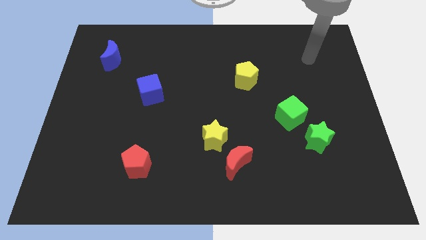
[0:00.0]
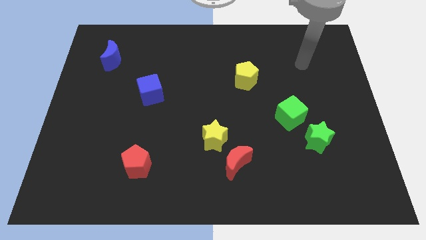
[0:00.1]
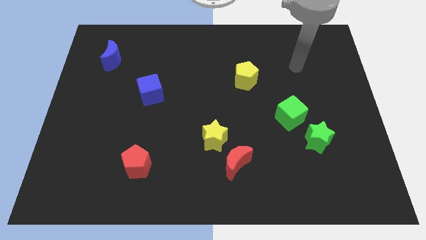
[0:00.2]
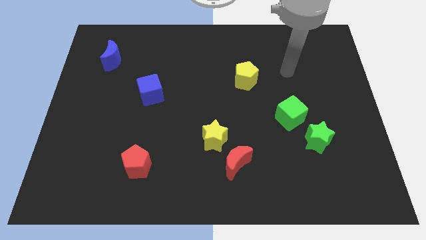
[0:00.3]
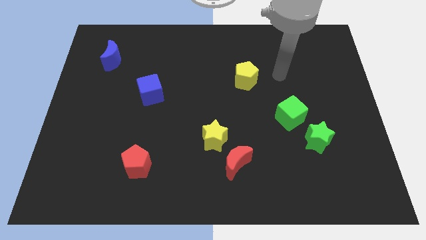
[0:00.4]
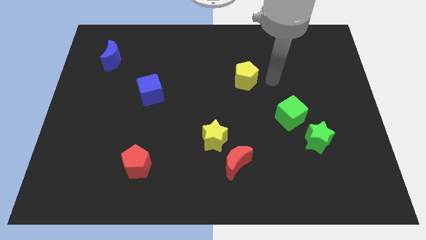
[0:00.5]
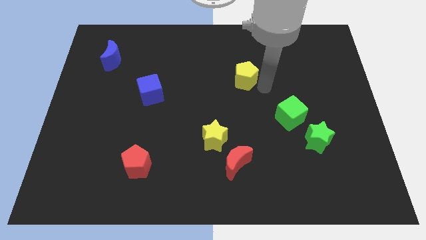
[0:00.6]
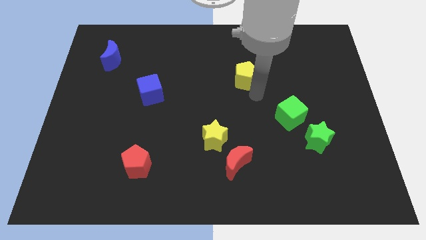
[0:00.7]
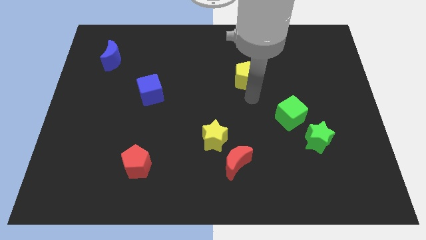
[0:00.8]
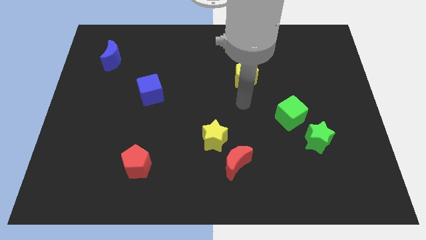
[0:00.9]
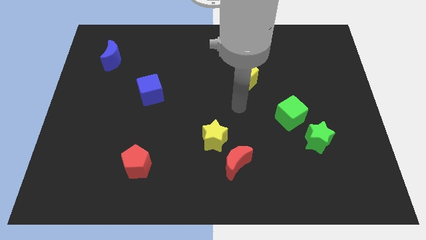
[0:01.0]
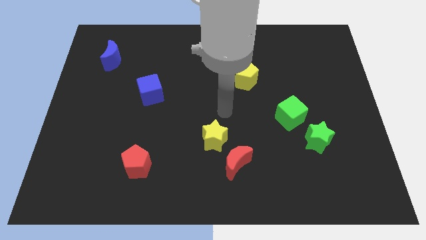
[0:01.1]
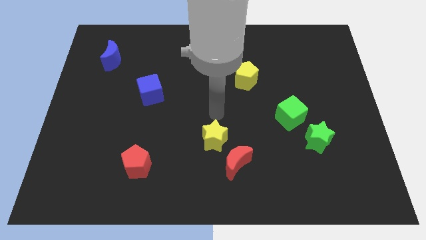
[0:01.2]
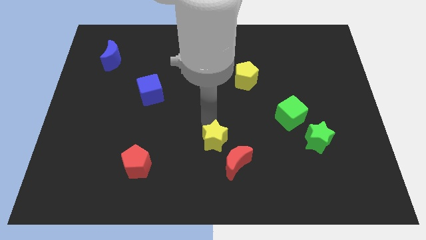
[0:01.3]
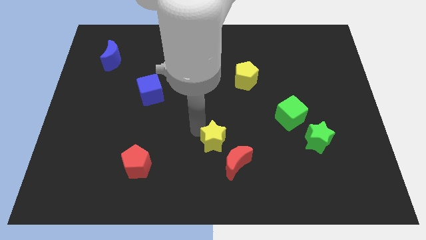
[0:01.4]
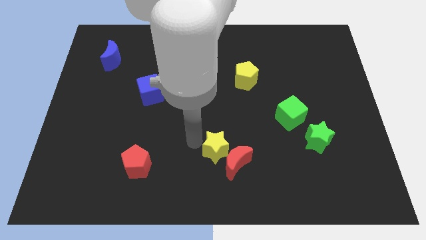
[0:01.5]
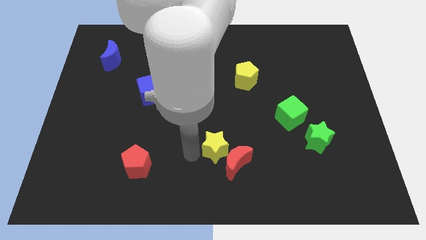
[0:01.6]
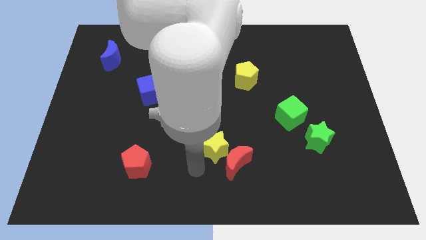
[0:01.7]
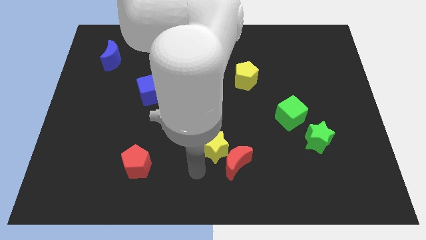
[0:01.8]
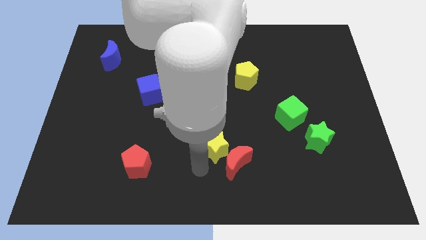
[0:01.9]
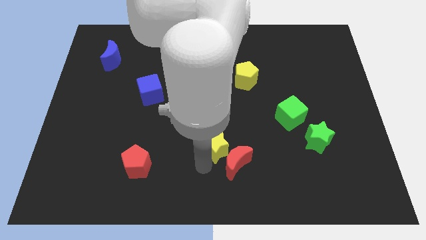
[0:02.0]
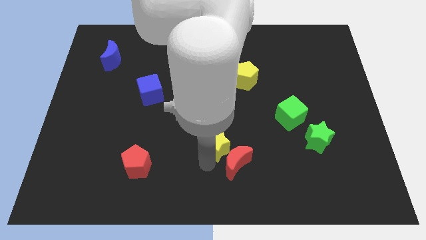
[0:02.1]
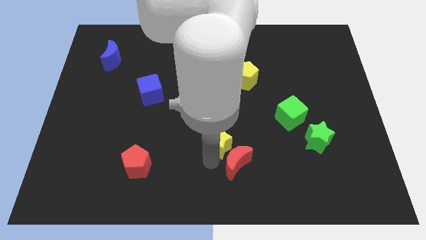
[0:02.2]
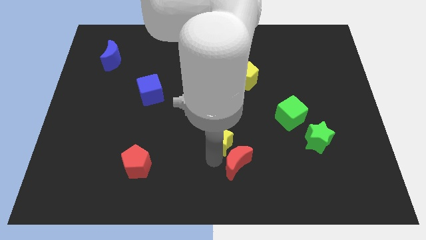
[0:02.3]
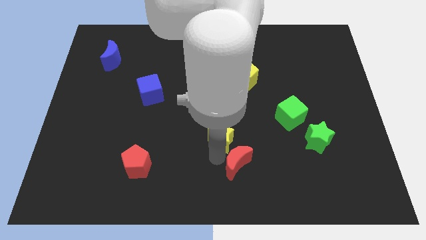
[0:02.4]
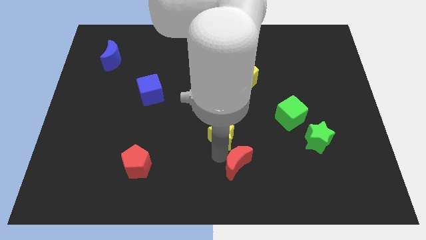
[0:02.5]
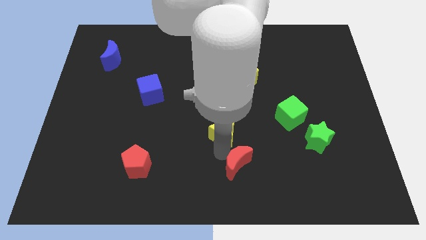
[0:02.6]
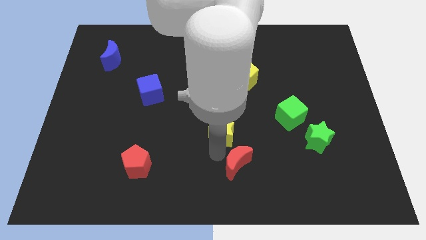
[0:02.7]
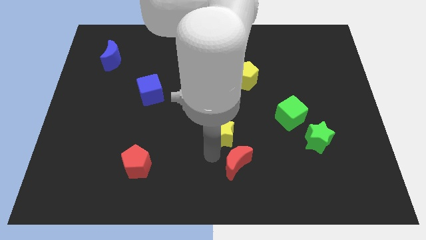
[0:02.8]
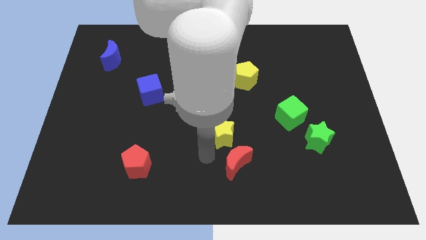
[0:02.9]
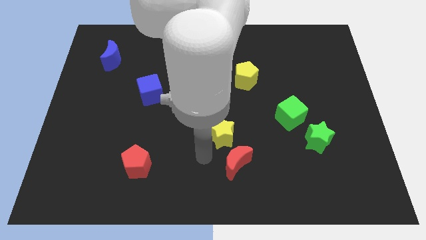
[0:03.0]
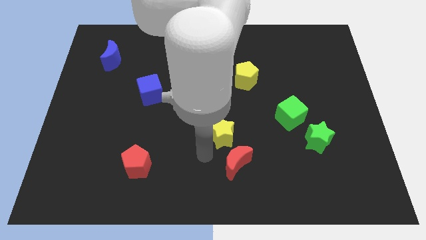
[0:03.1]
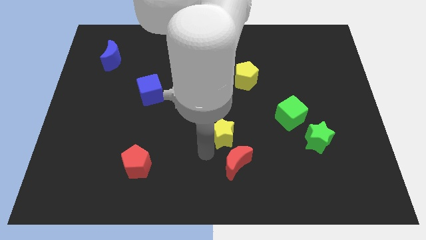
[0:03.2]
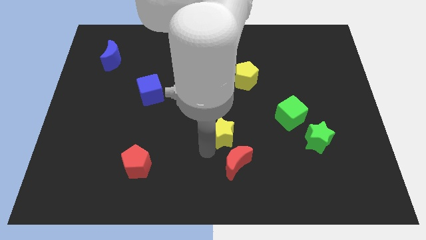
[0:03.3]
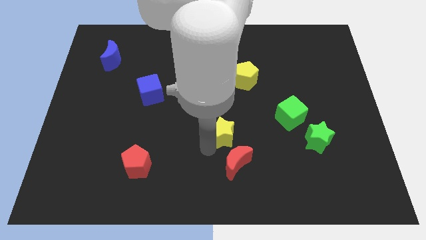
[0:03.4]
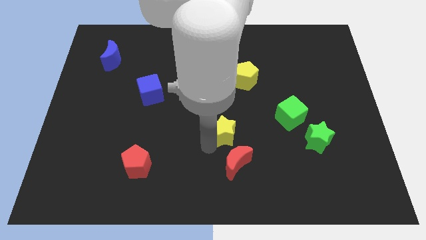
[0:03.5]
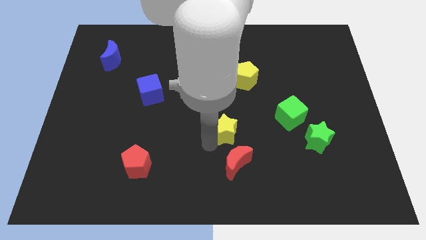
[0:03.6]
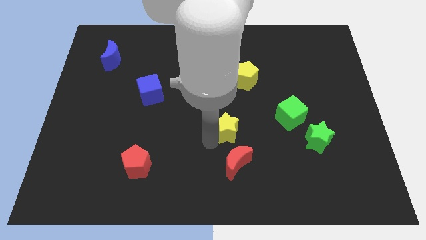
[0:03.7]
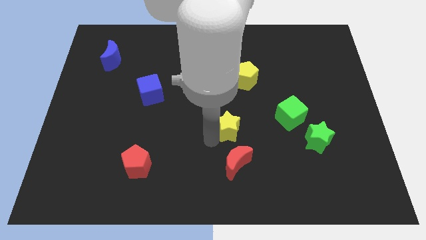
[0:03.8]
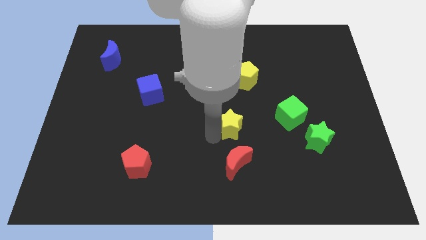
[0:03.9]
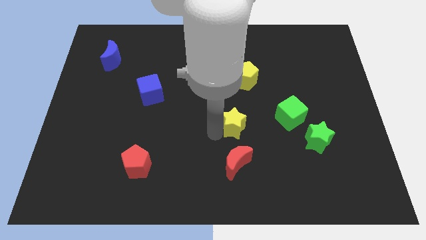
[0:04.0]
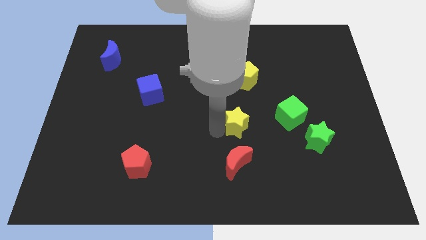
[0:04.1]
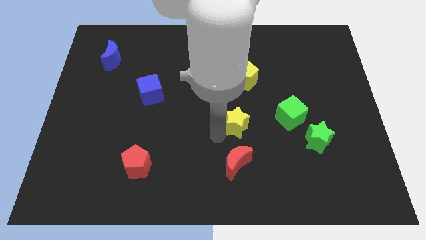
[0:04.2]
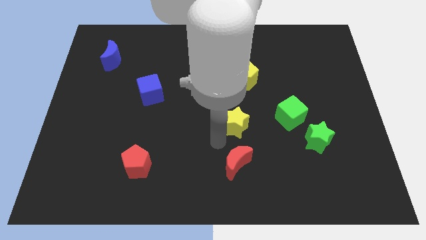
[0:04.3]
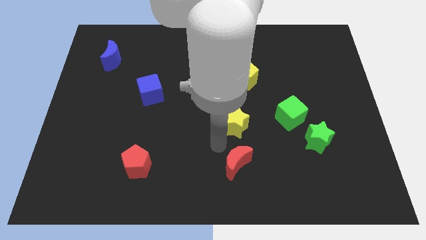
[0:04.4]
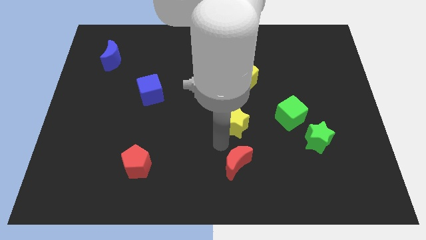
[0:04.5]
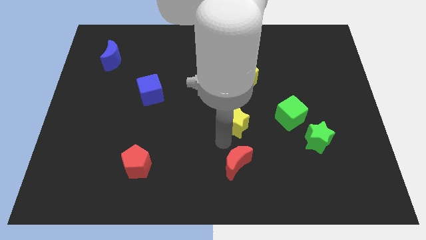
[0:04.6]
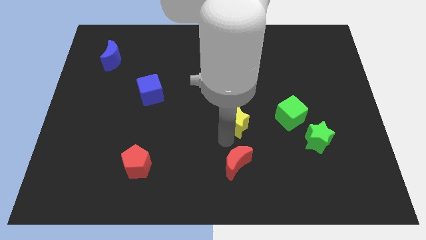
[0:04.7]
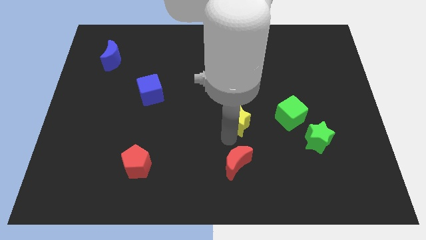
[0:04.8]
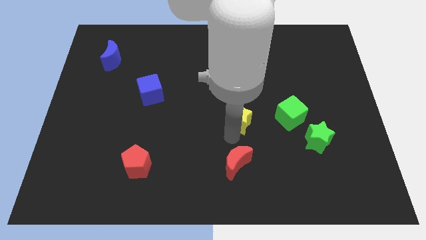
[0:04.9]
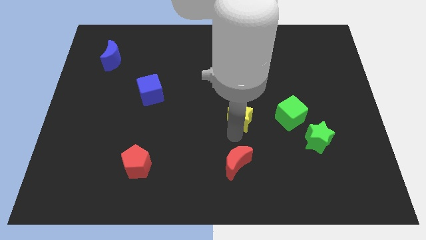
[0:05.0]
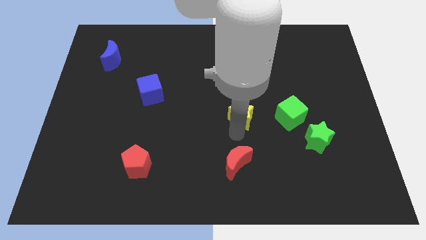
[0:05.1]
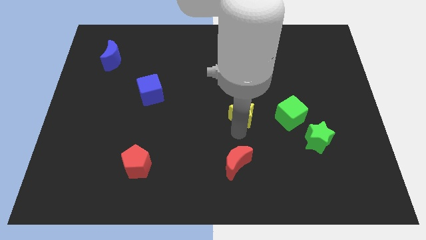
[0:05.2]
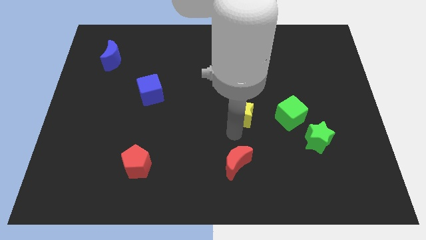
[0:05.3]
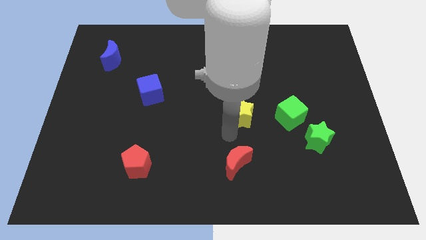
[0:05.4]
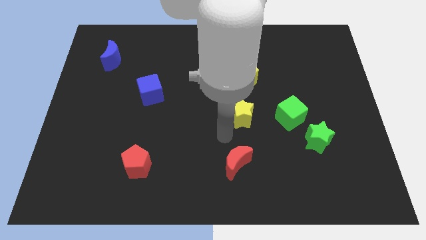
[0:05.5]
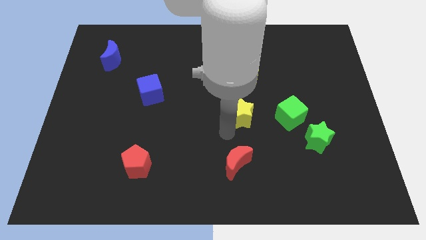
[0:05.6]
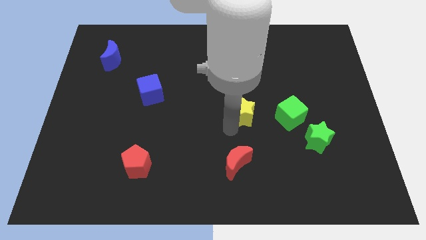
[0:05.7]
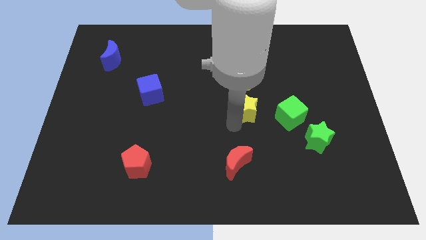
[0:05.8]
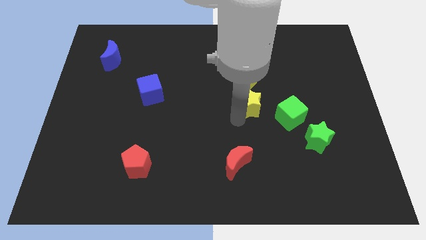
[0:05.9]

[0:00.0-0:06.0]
move the yellow star to the top left side of the green cube

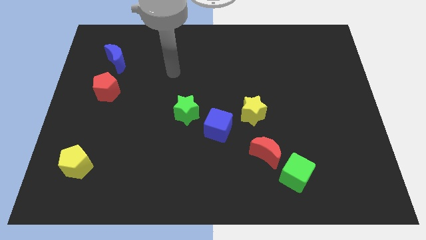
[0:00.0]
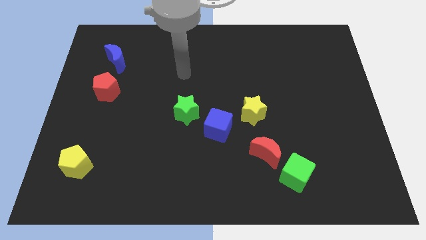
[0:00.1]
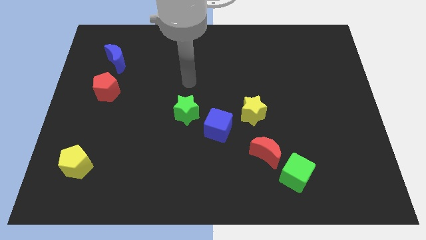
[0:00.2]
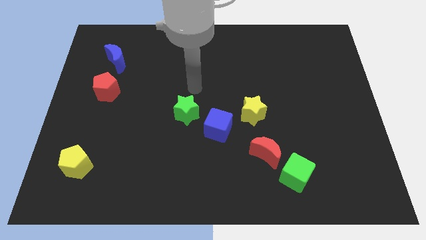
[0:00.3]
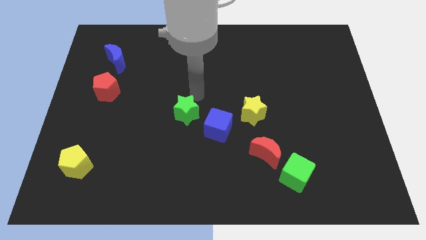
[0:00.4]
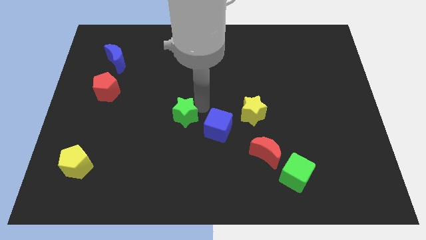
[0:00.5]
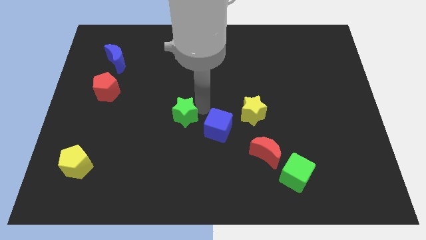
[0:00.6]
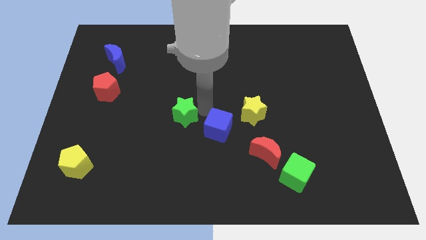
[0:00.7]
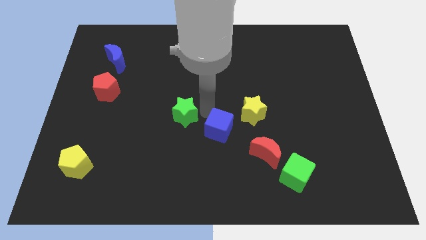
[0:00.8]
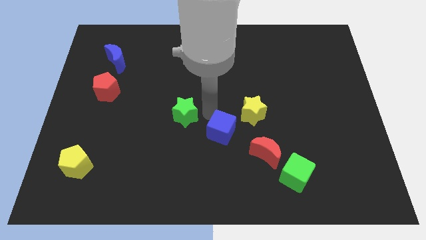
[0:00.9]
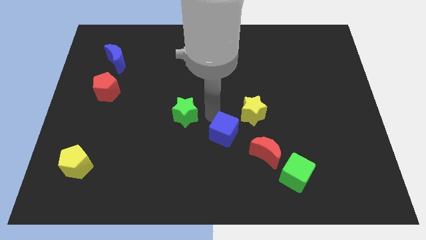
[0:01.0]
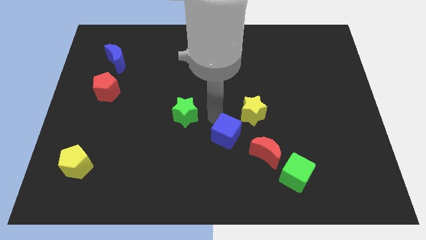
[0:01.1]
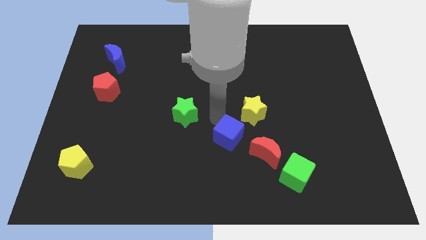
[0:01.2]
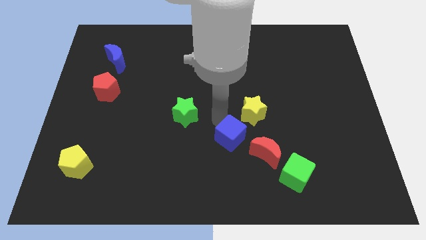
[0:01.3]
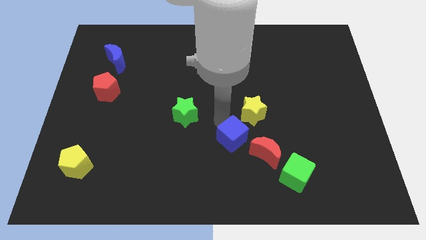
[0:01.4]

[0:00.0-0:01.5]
put the blue cube to the bottom side of the yellow star
